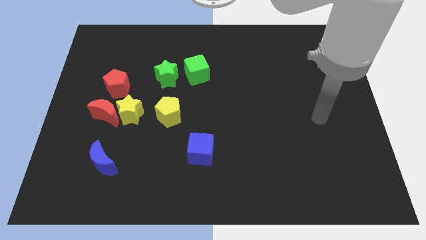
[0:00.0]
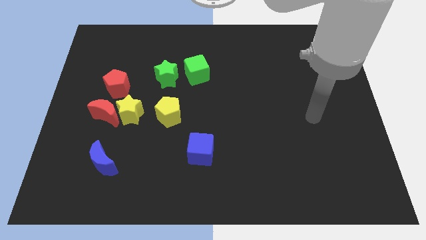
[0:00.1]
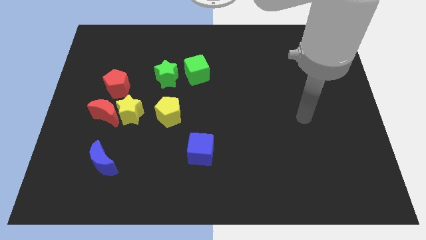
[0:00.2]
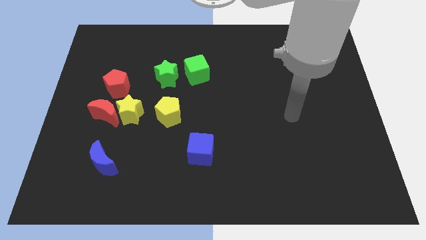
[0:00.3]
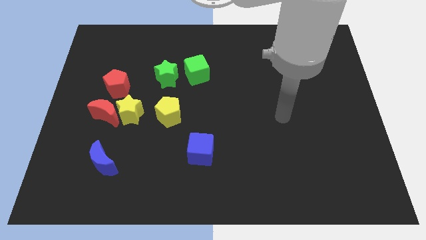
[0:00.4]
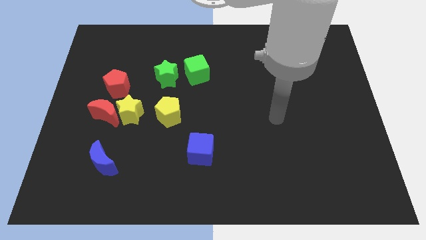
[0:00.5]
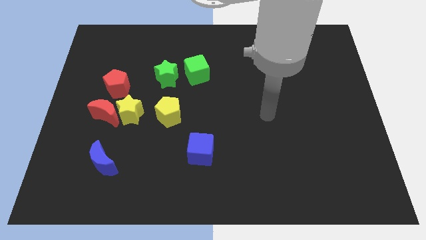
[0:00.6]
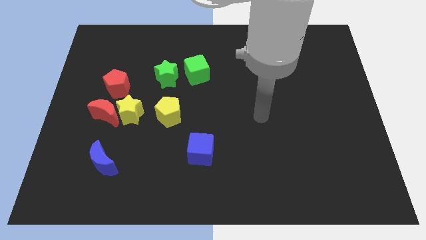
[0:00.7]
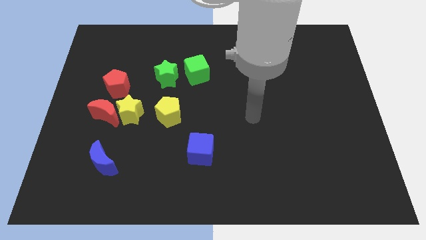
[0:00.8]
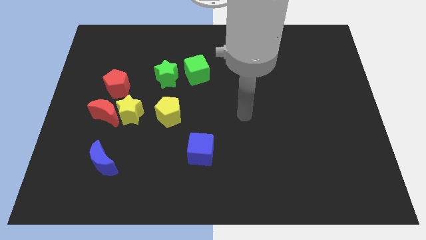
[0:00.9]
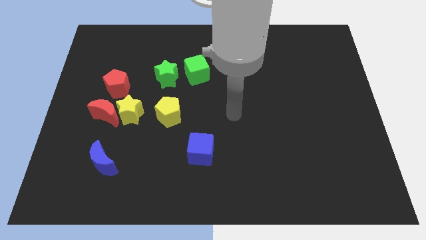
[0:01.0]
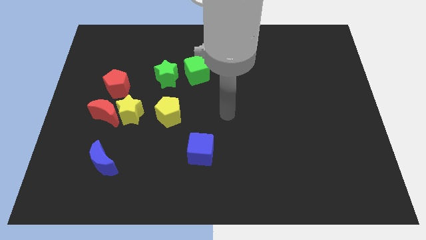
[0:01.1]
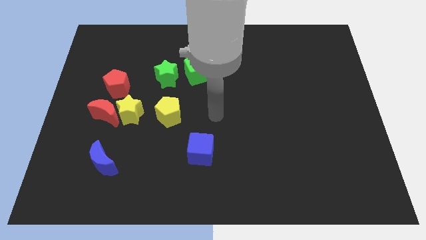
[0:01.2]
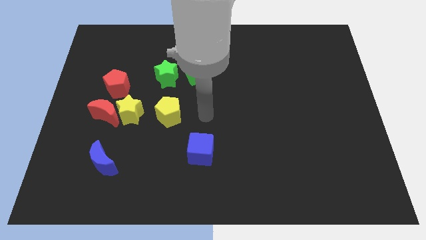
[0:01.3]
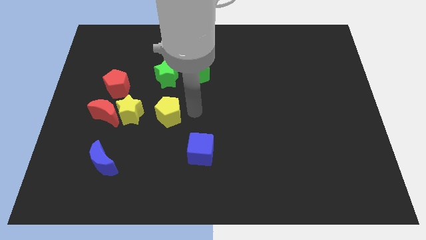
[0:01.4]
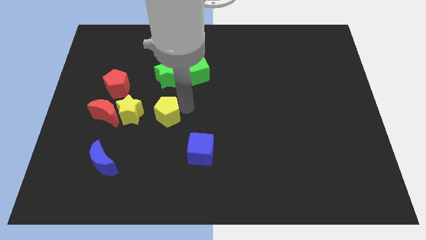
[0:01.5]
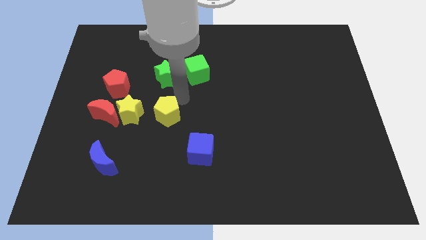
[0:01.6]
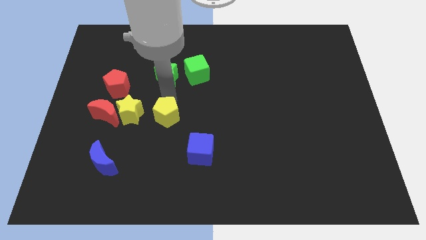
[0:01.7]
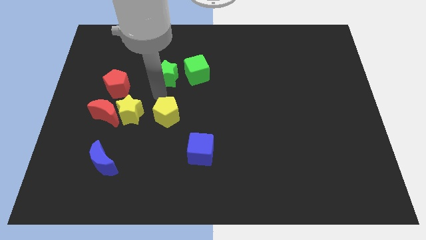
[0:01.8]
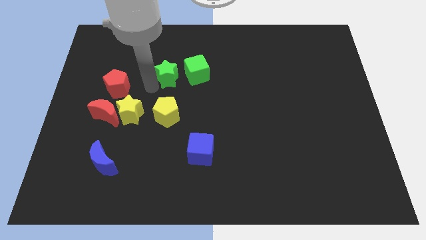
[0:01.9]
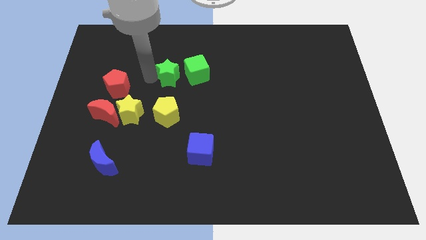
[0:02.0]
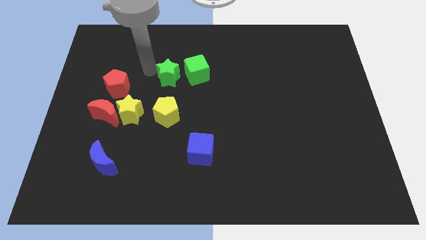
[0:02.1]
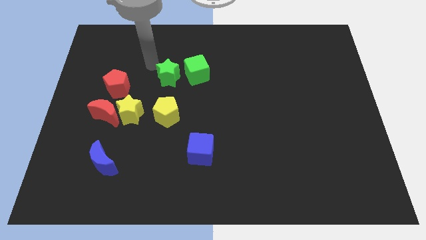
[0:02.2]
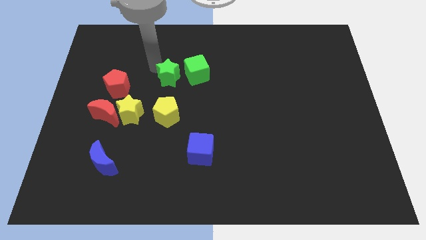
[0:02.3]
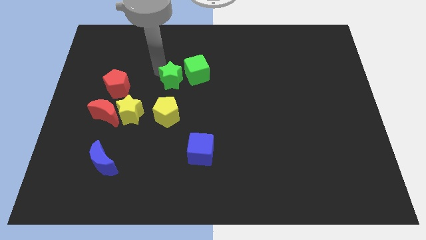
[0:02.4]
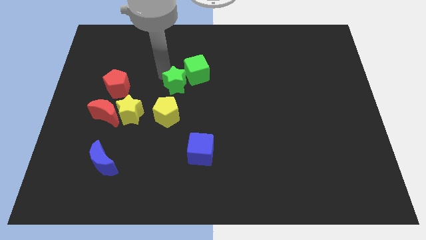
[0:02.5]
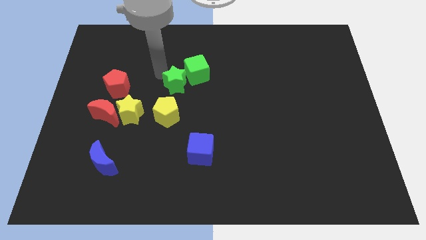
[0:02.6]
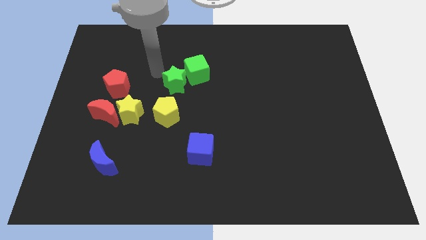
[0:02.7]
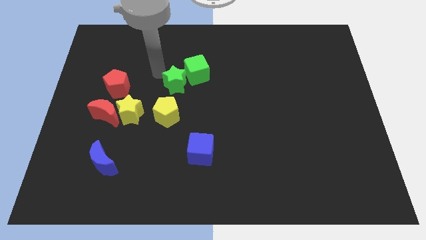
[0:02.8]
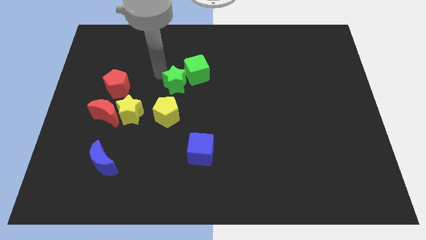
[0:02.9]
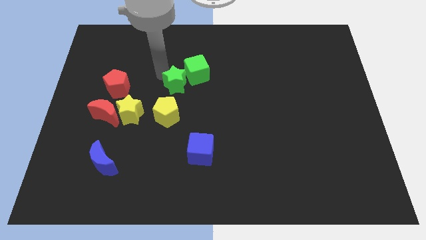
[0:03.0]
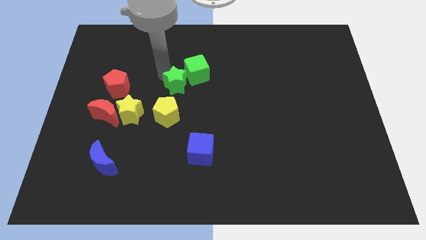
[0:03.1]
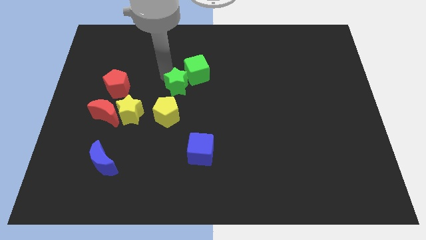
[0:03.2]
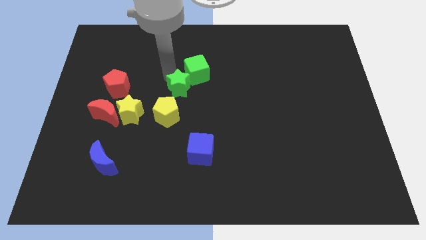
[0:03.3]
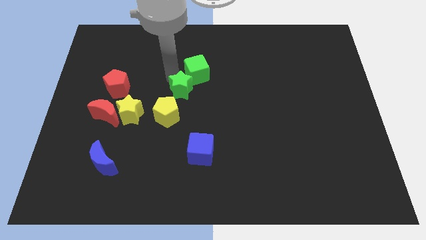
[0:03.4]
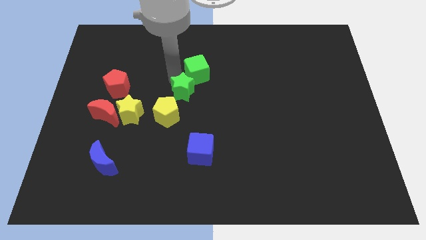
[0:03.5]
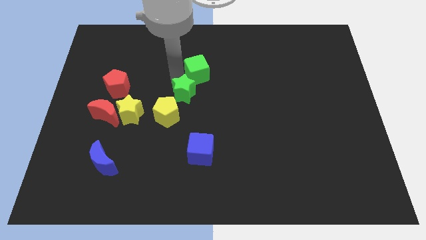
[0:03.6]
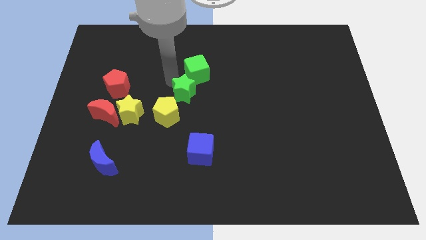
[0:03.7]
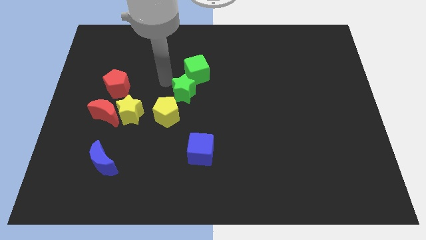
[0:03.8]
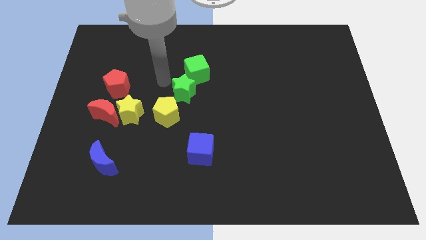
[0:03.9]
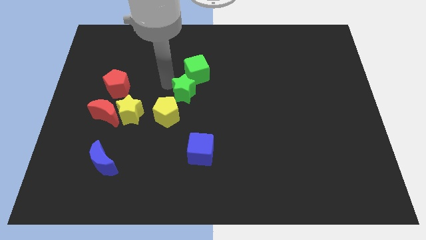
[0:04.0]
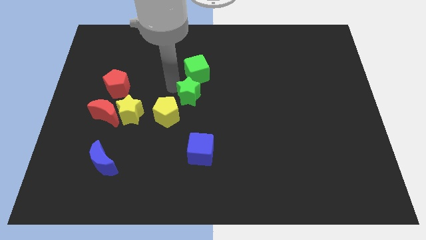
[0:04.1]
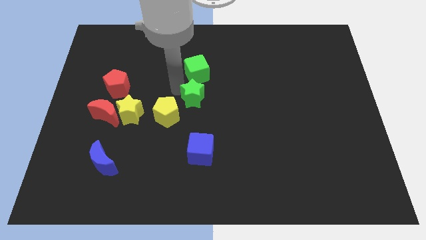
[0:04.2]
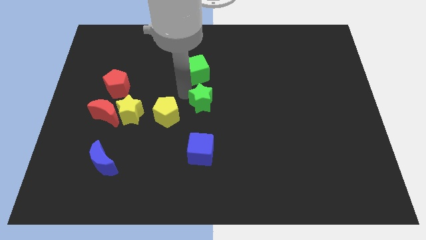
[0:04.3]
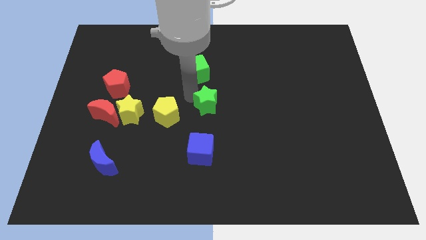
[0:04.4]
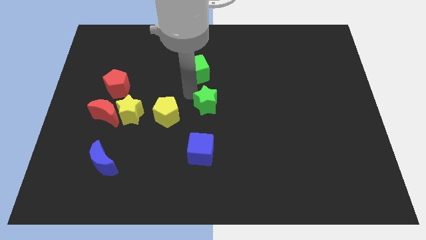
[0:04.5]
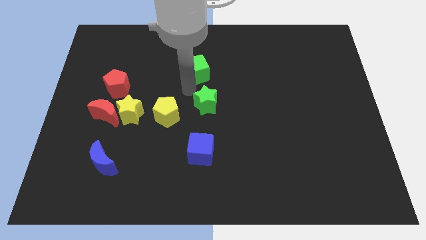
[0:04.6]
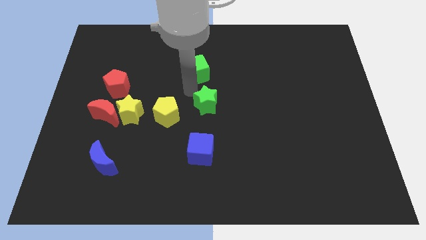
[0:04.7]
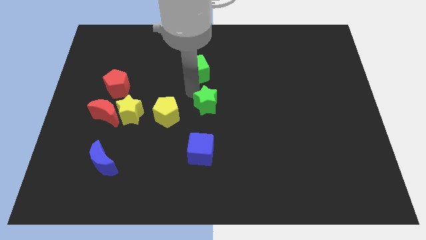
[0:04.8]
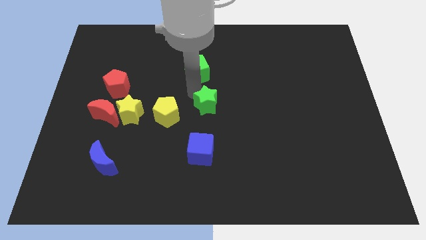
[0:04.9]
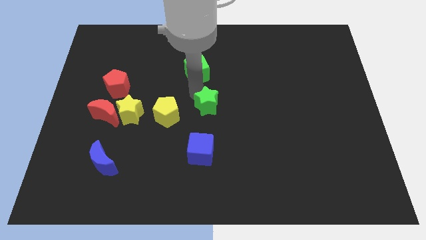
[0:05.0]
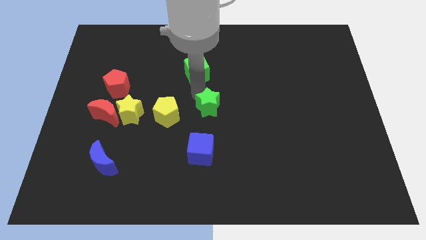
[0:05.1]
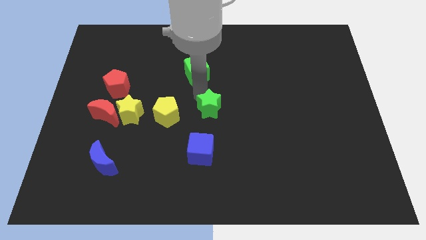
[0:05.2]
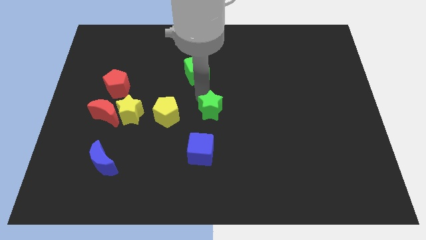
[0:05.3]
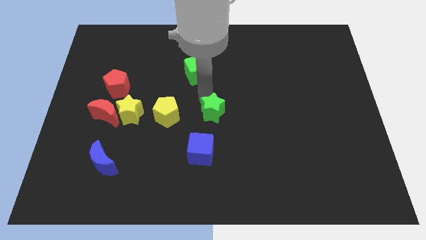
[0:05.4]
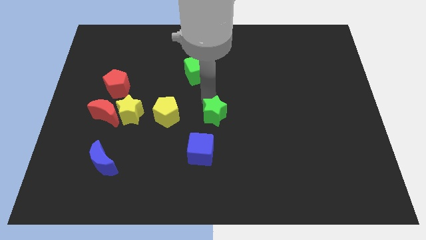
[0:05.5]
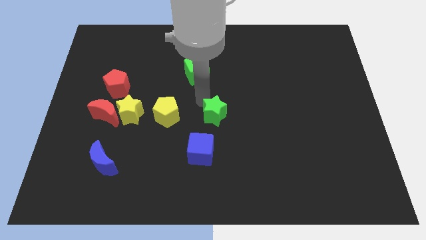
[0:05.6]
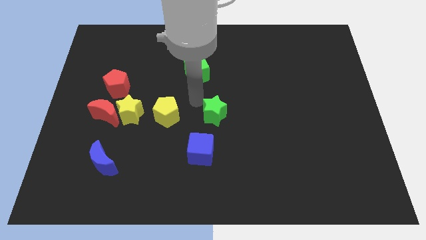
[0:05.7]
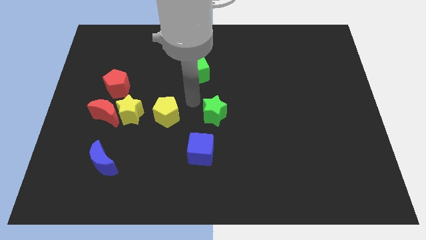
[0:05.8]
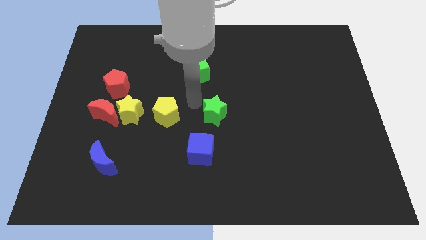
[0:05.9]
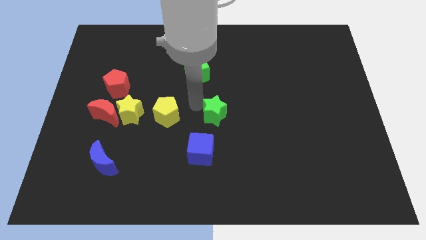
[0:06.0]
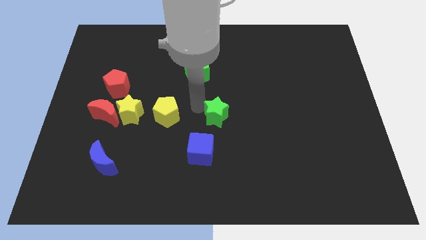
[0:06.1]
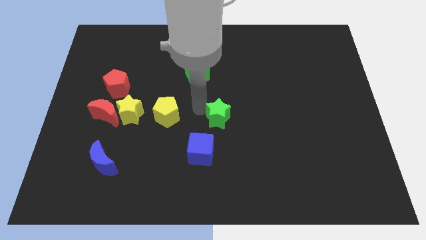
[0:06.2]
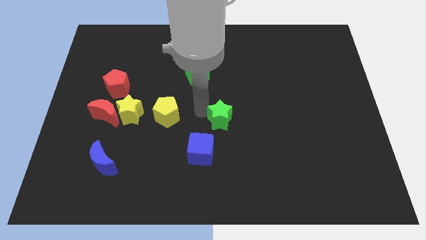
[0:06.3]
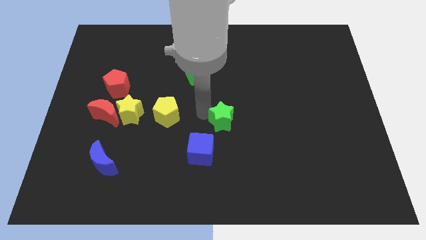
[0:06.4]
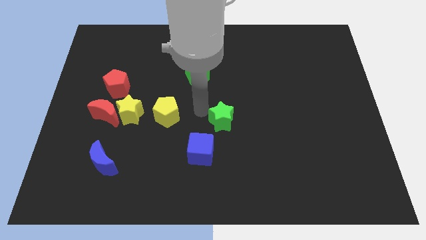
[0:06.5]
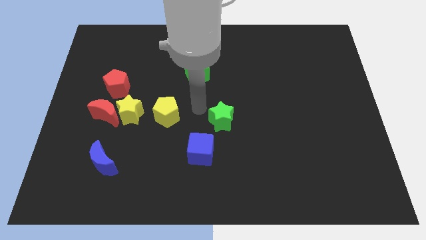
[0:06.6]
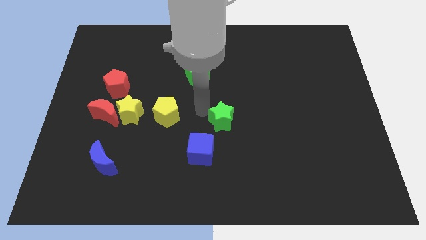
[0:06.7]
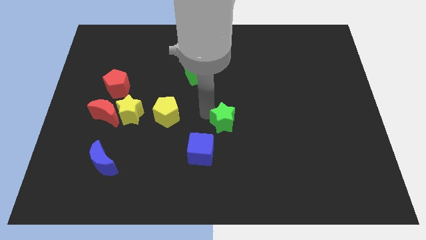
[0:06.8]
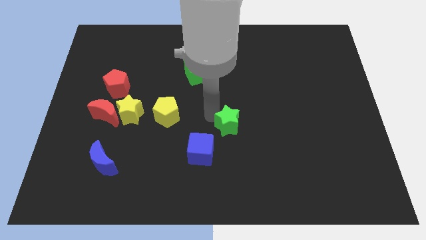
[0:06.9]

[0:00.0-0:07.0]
push the green star down and then to the right

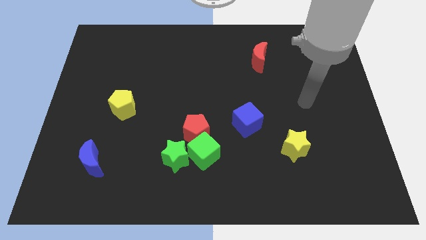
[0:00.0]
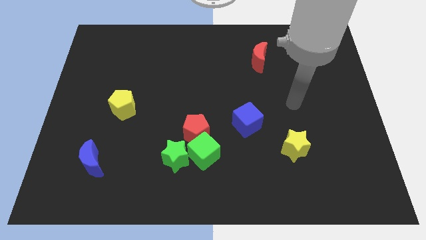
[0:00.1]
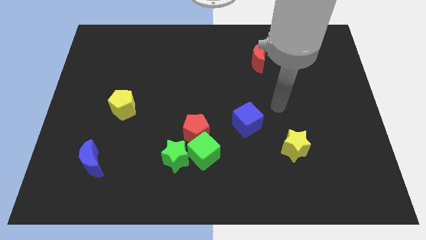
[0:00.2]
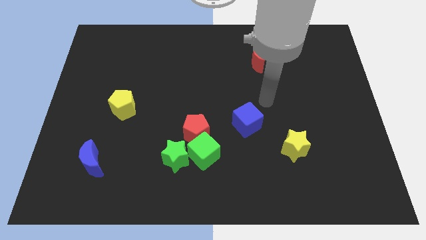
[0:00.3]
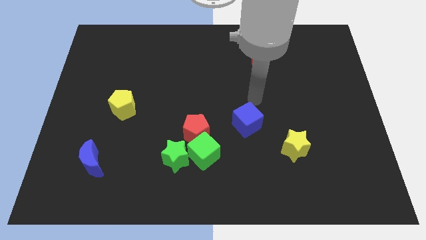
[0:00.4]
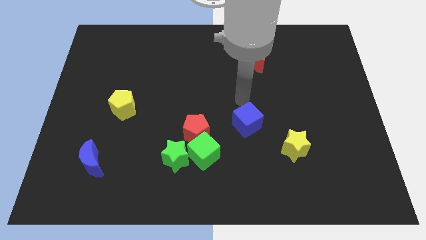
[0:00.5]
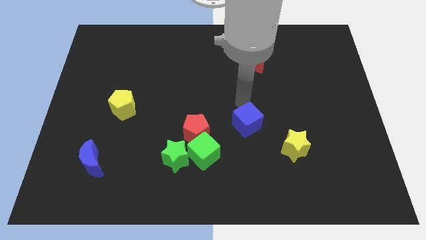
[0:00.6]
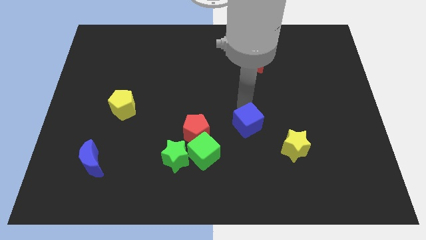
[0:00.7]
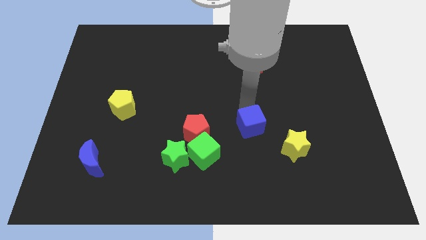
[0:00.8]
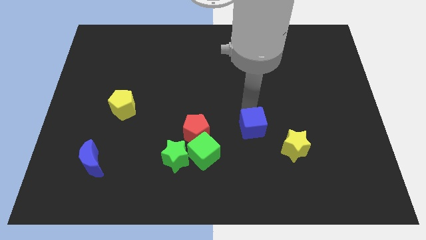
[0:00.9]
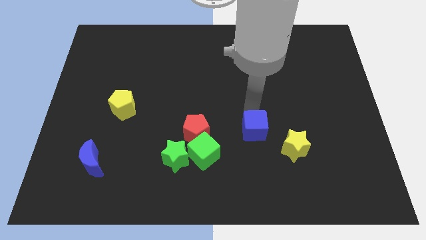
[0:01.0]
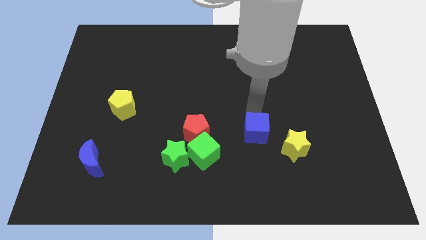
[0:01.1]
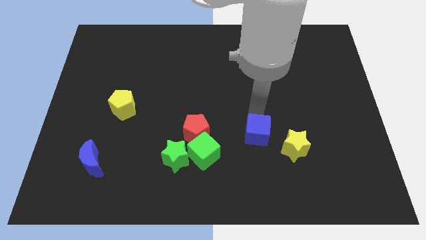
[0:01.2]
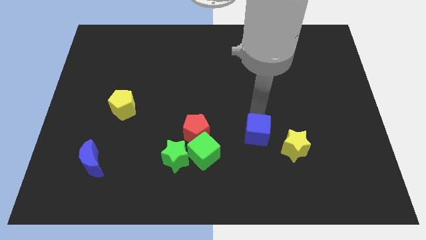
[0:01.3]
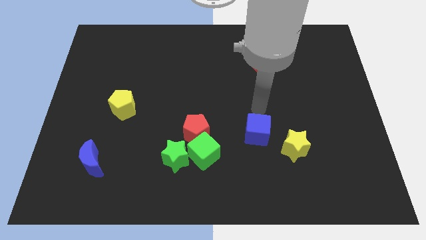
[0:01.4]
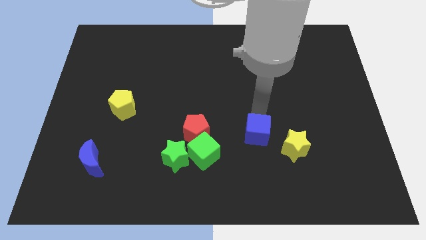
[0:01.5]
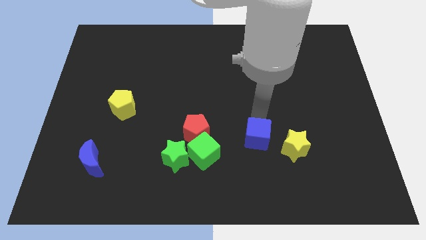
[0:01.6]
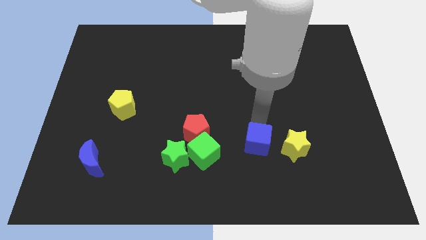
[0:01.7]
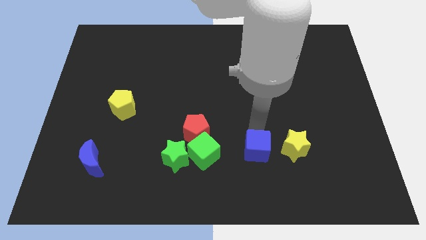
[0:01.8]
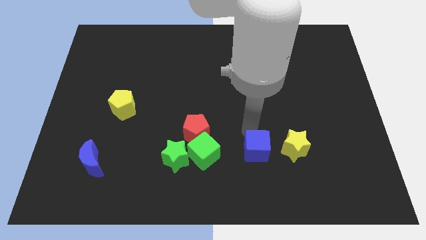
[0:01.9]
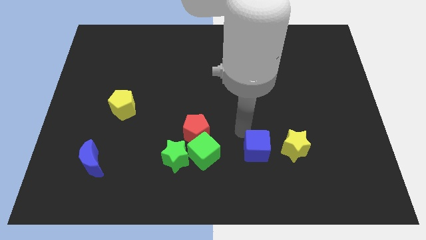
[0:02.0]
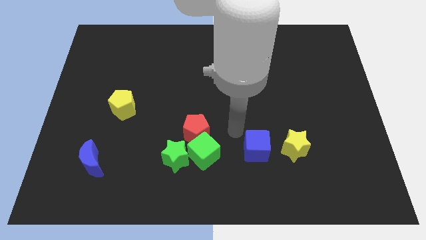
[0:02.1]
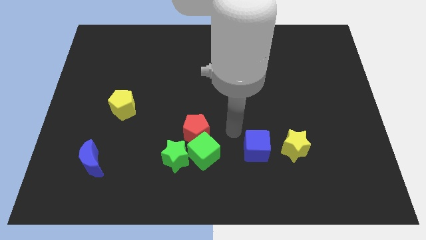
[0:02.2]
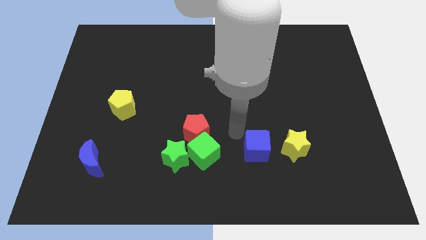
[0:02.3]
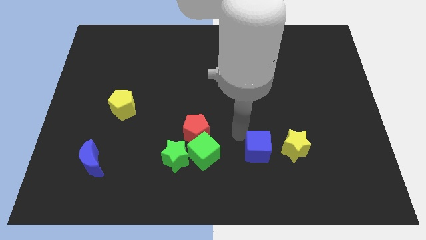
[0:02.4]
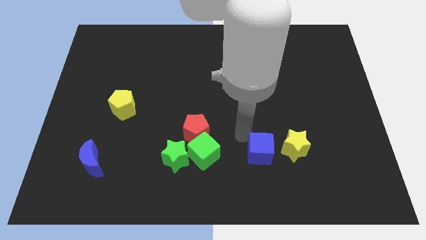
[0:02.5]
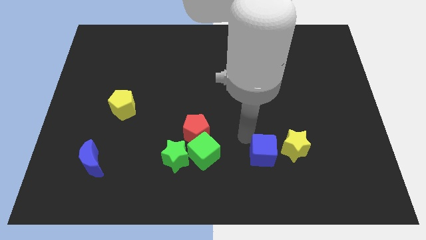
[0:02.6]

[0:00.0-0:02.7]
push the blue cube a little bit down and right diagonally
